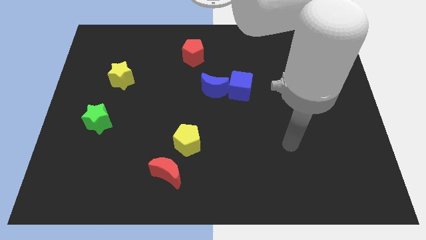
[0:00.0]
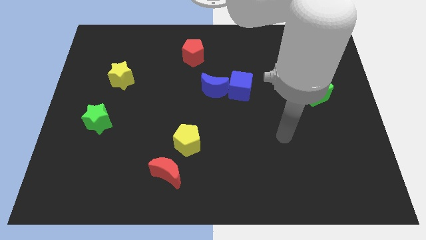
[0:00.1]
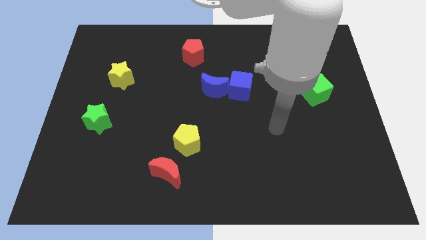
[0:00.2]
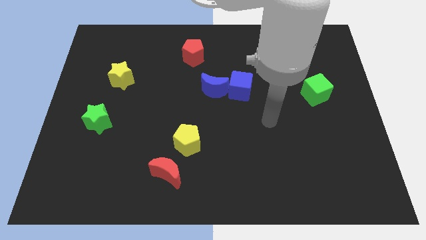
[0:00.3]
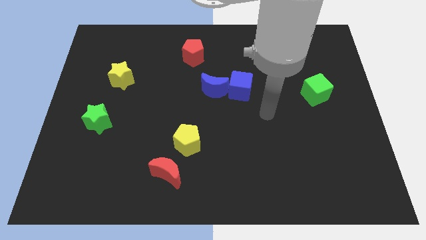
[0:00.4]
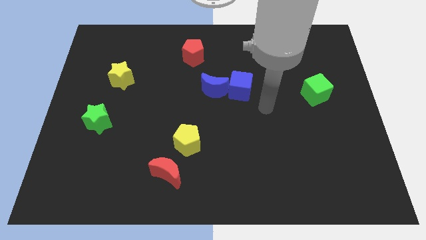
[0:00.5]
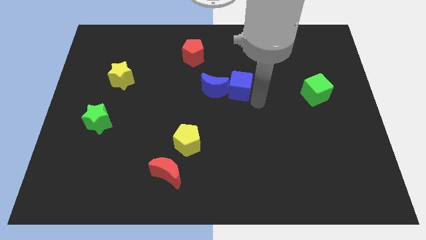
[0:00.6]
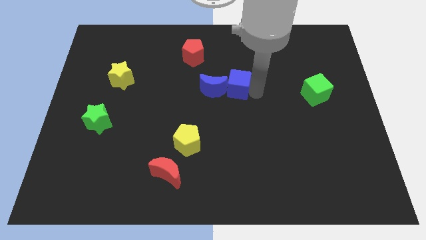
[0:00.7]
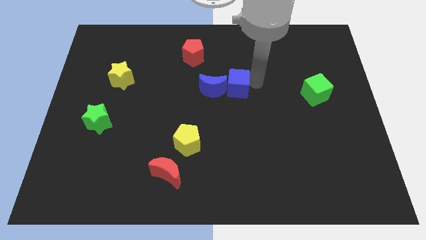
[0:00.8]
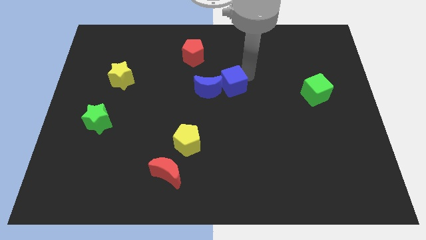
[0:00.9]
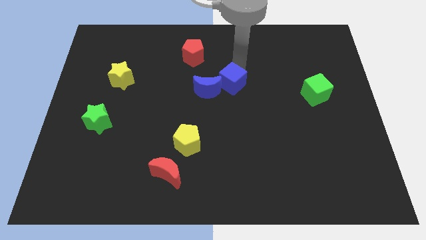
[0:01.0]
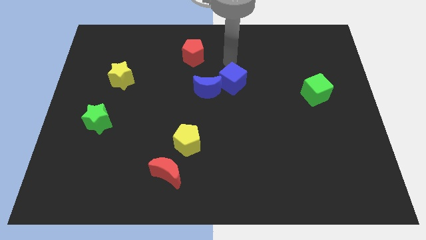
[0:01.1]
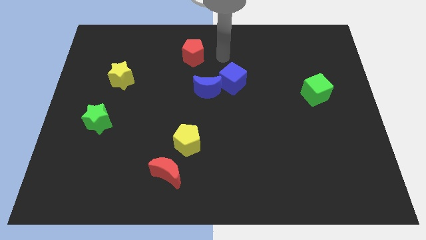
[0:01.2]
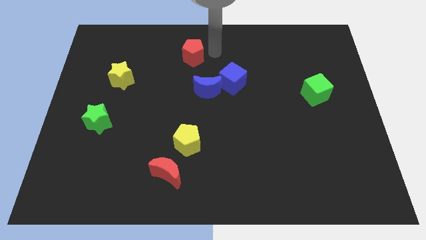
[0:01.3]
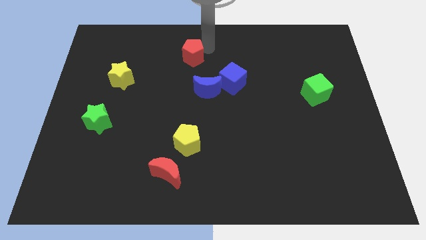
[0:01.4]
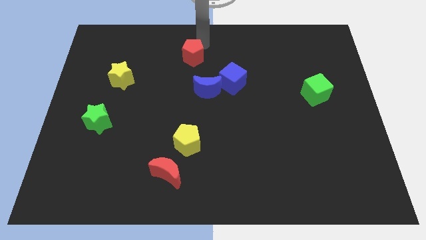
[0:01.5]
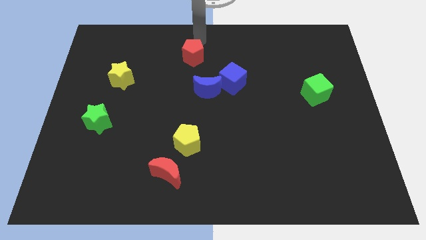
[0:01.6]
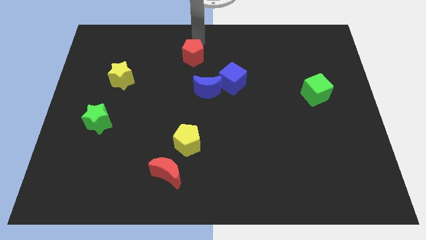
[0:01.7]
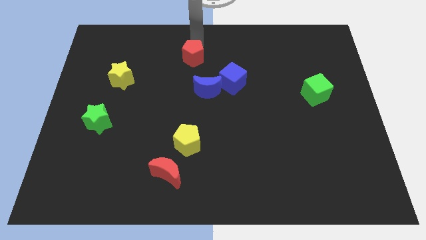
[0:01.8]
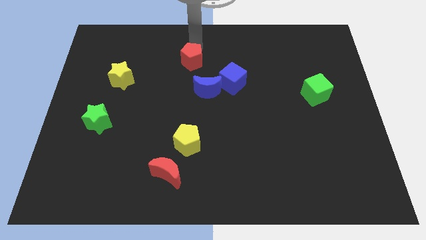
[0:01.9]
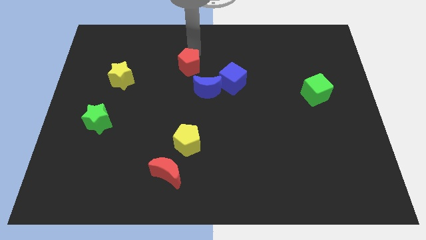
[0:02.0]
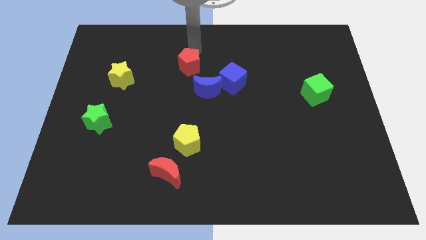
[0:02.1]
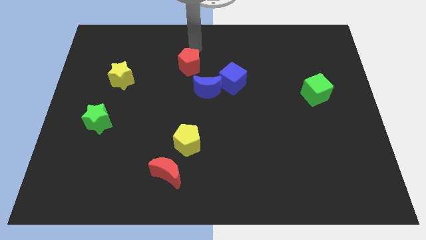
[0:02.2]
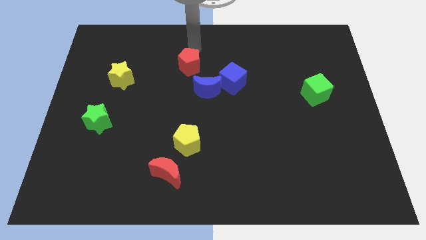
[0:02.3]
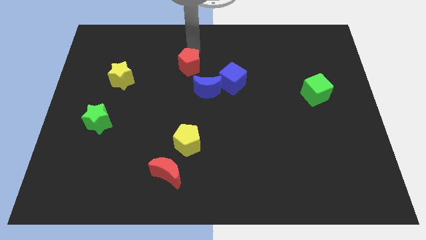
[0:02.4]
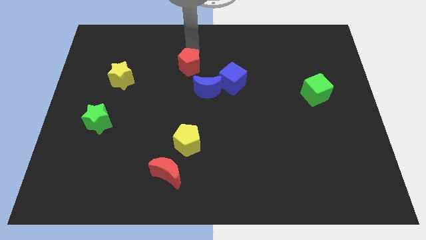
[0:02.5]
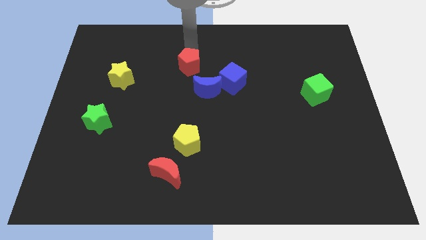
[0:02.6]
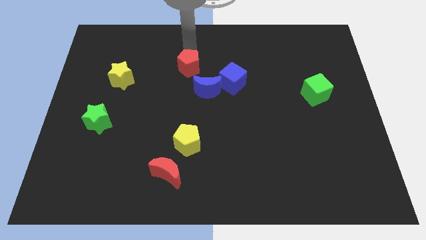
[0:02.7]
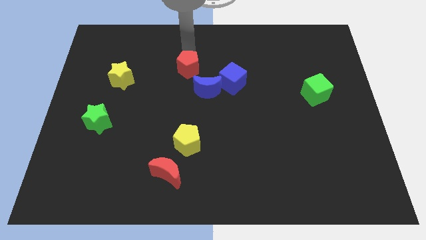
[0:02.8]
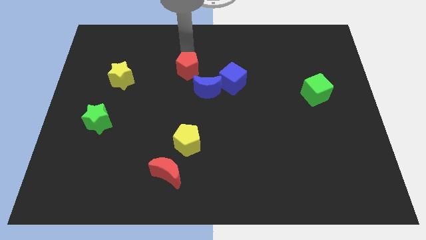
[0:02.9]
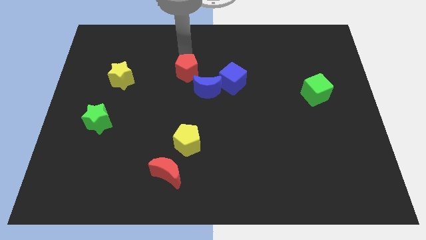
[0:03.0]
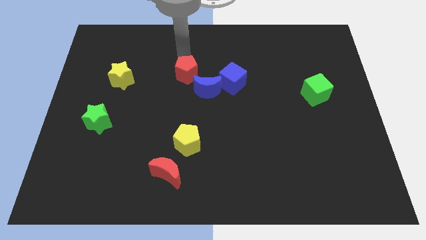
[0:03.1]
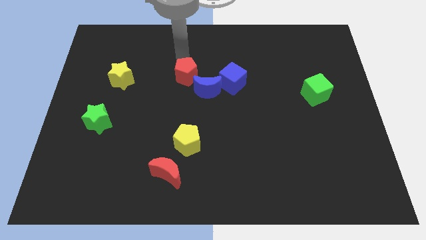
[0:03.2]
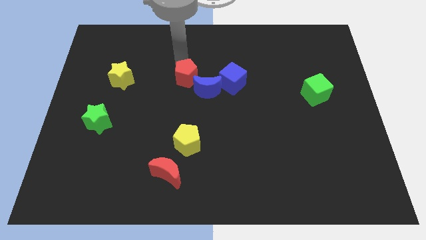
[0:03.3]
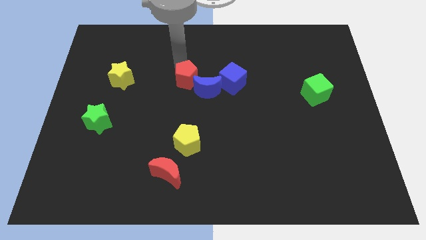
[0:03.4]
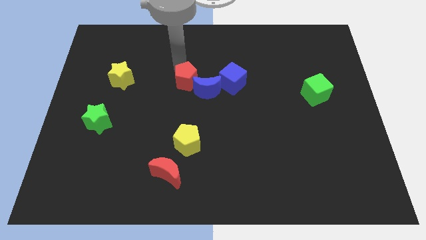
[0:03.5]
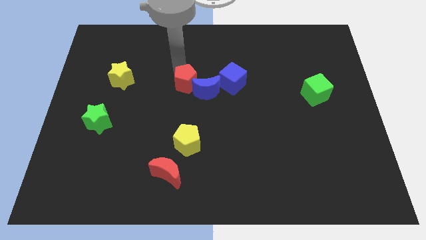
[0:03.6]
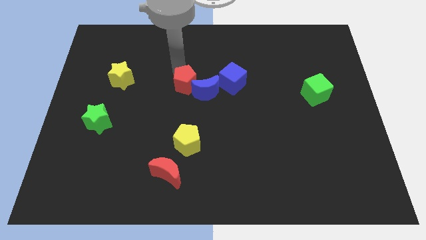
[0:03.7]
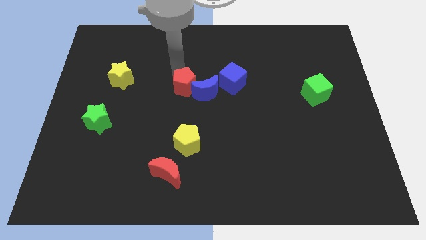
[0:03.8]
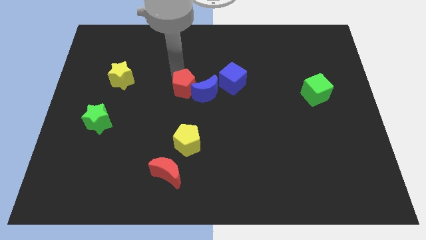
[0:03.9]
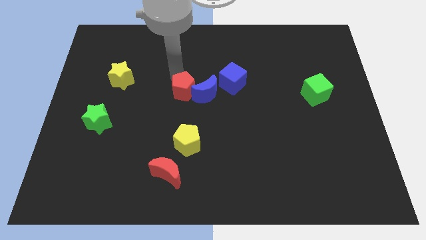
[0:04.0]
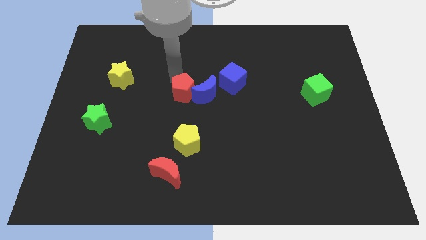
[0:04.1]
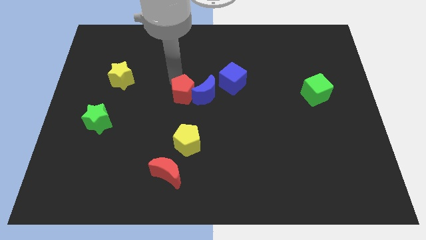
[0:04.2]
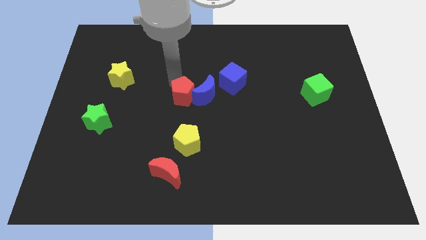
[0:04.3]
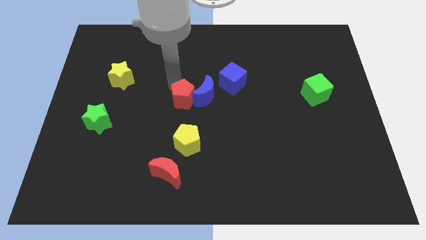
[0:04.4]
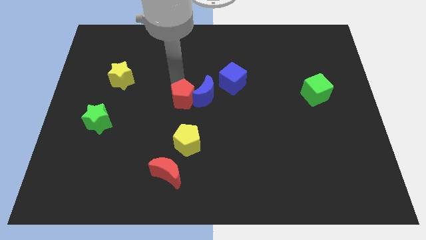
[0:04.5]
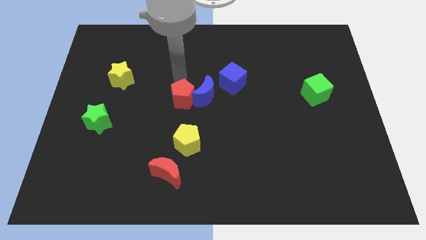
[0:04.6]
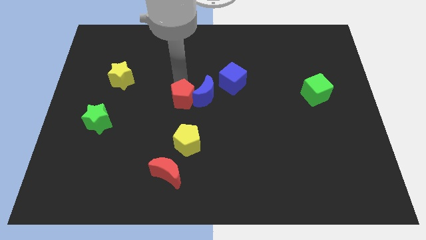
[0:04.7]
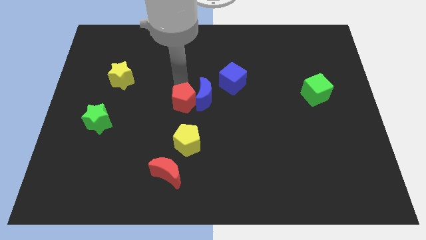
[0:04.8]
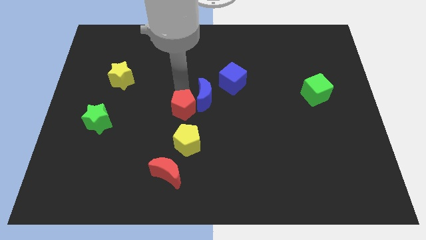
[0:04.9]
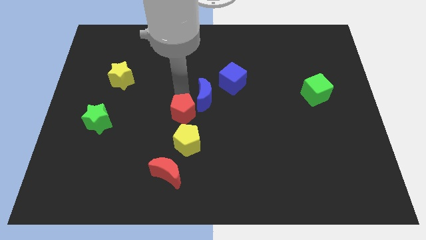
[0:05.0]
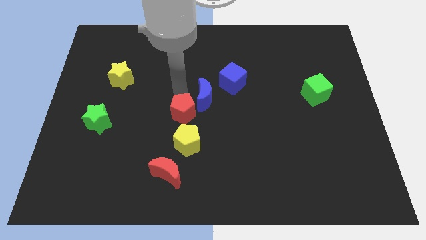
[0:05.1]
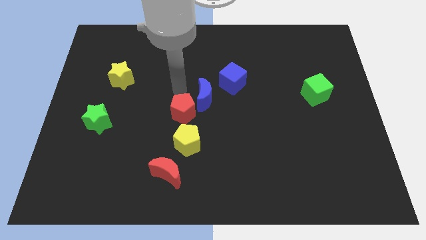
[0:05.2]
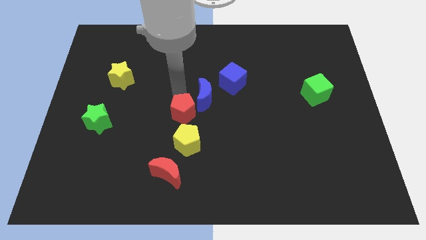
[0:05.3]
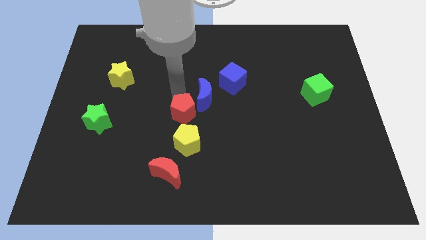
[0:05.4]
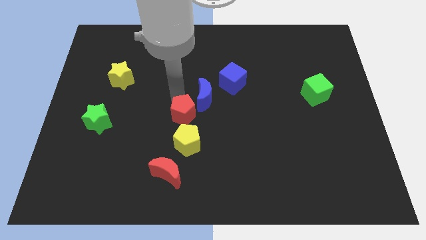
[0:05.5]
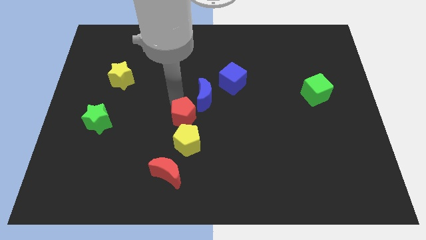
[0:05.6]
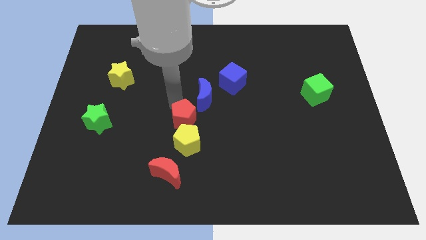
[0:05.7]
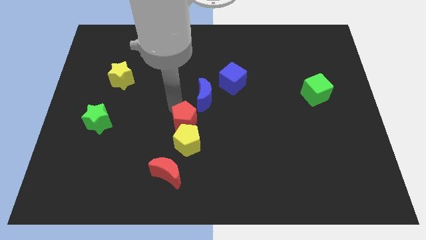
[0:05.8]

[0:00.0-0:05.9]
put the red pentagon towards the yellow pentagon
